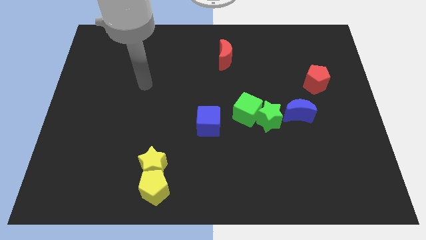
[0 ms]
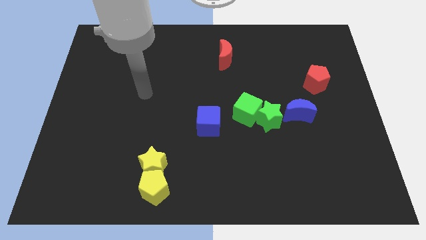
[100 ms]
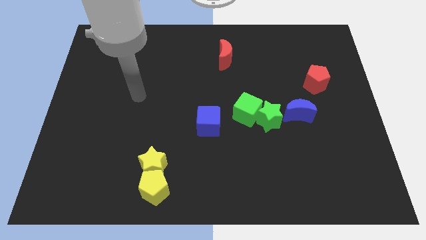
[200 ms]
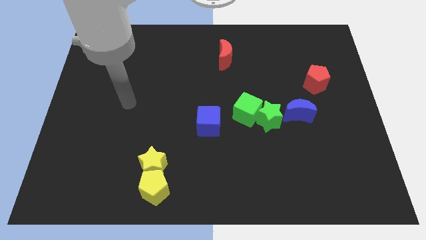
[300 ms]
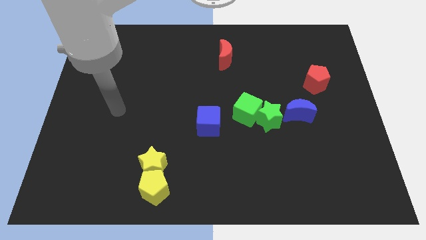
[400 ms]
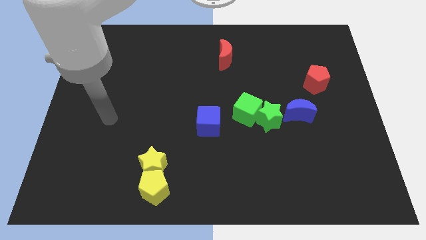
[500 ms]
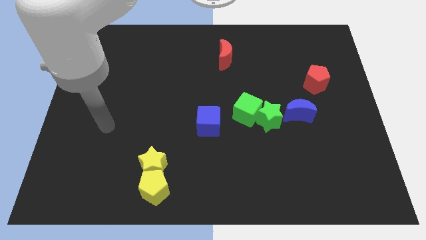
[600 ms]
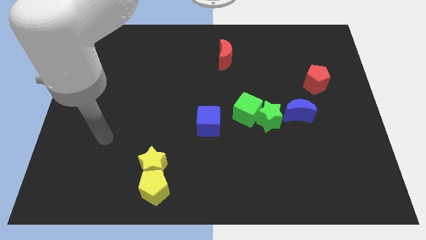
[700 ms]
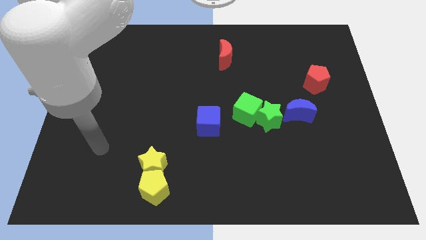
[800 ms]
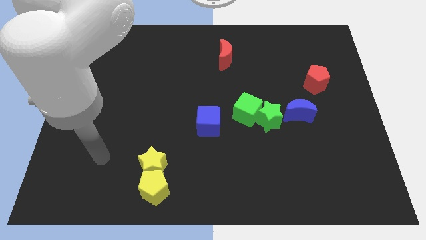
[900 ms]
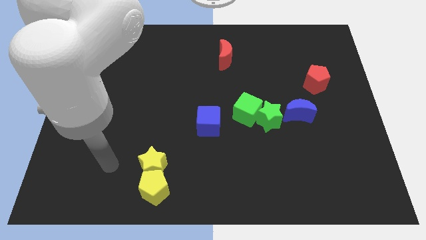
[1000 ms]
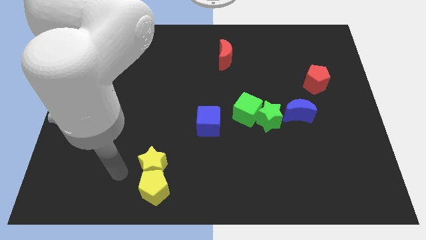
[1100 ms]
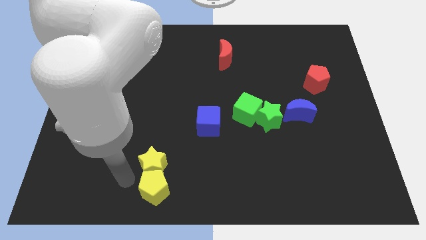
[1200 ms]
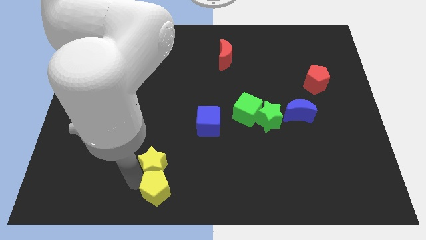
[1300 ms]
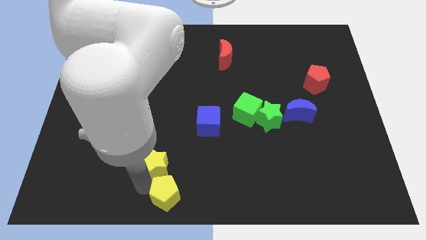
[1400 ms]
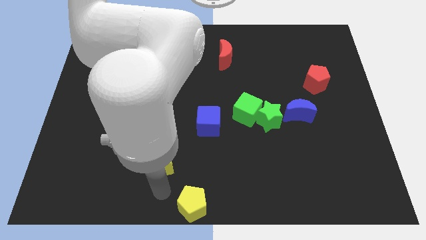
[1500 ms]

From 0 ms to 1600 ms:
separate the yellow star from the yellow pentagon

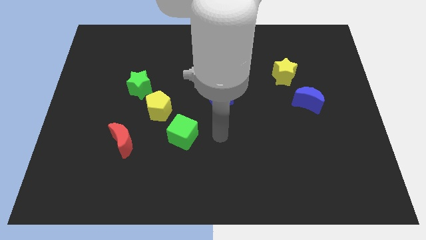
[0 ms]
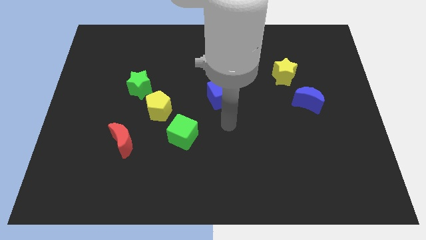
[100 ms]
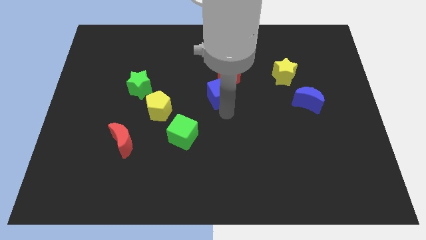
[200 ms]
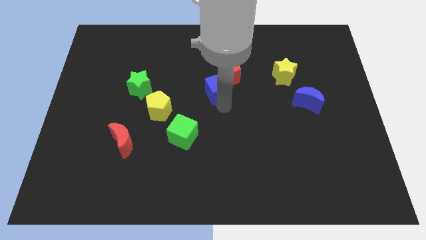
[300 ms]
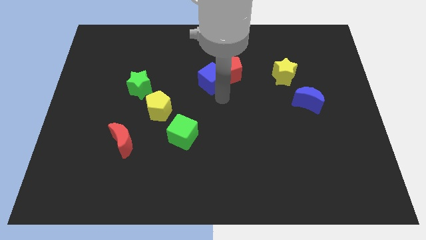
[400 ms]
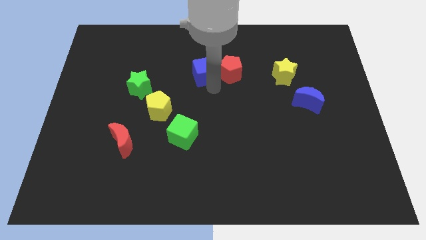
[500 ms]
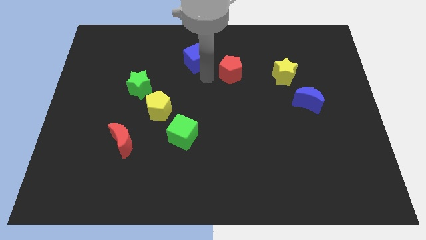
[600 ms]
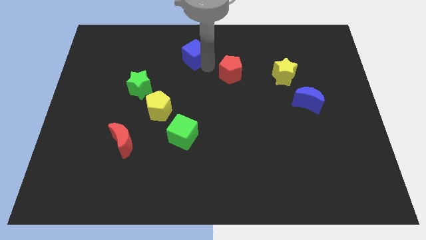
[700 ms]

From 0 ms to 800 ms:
move the red pentagon away from the blue cube

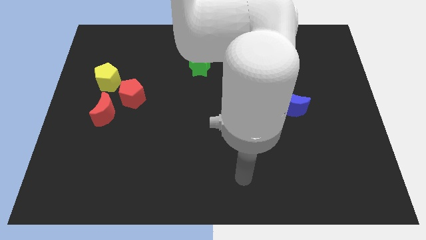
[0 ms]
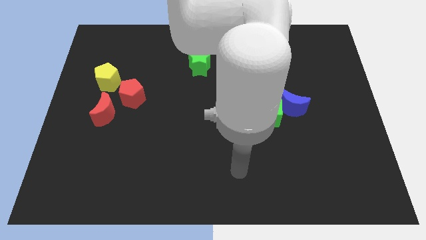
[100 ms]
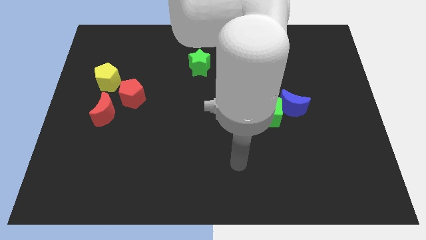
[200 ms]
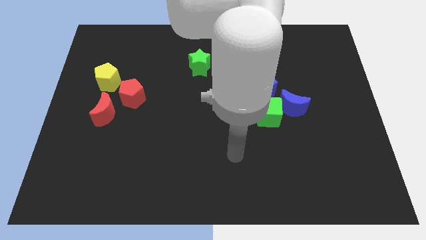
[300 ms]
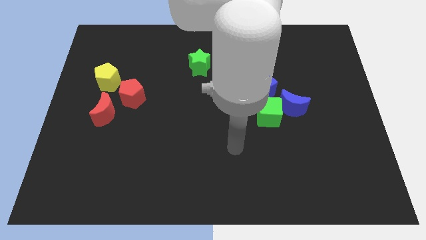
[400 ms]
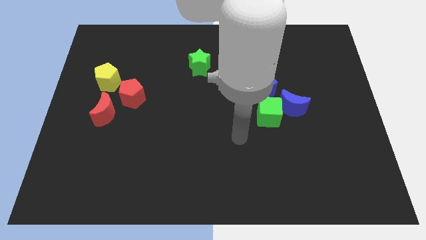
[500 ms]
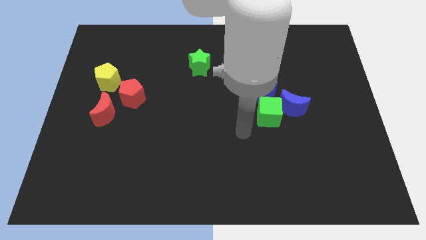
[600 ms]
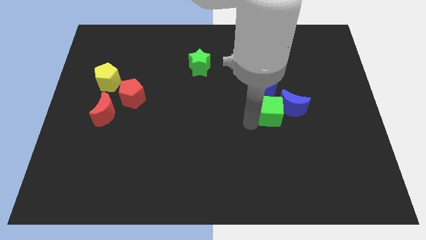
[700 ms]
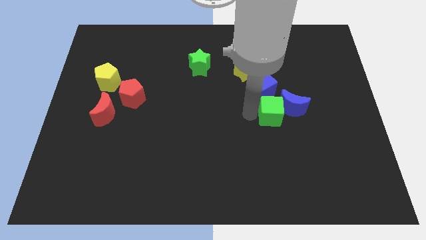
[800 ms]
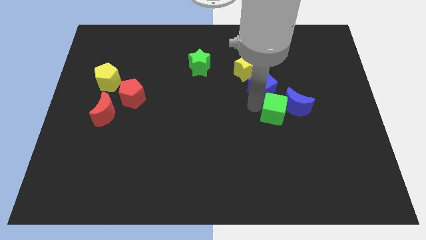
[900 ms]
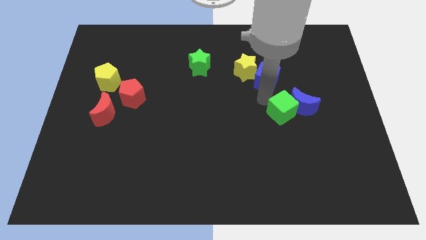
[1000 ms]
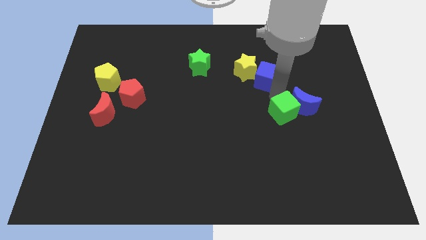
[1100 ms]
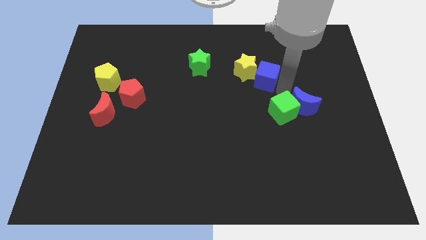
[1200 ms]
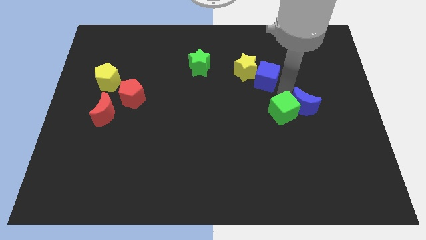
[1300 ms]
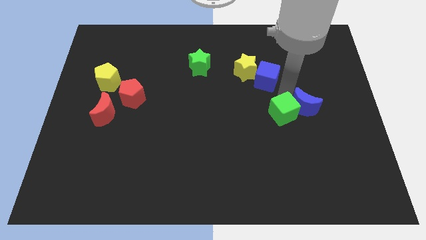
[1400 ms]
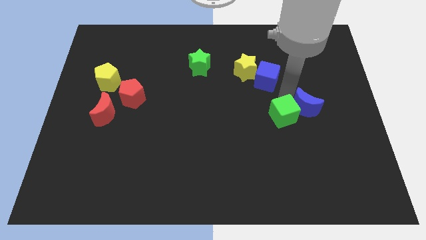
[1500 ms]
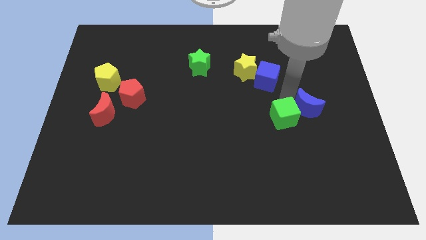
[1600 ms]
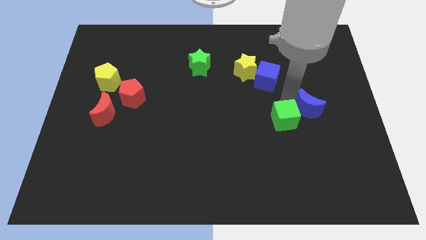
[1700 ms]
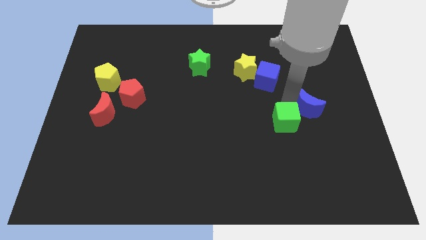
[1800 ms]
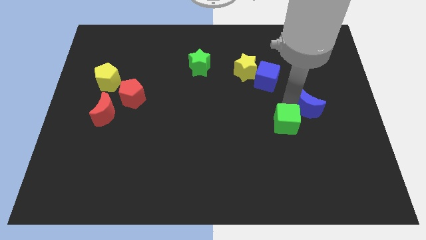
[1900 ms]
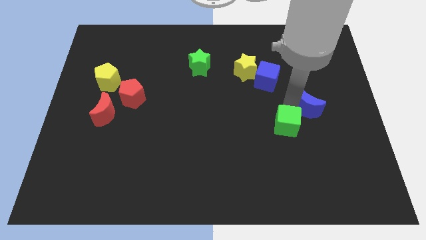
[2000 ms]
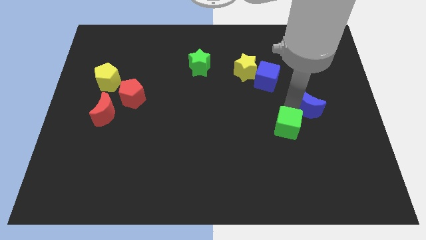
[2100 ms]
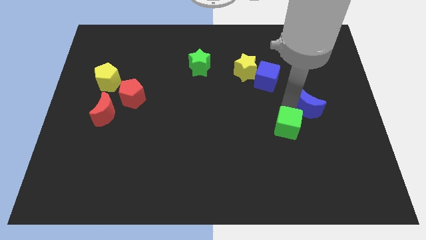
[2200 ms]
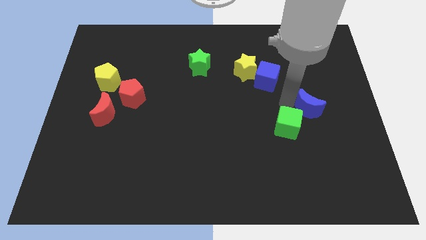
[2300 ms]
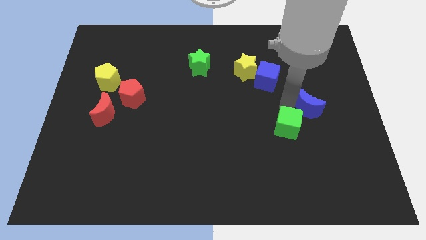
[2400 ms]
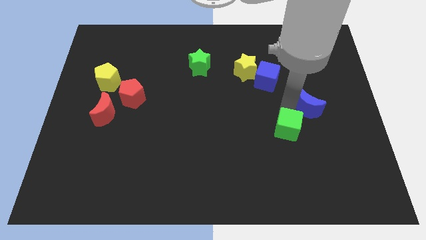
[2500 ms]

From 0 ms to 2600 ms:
move the green cube away from the blue moon and blue cube

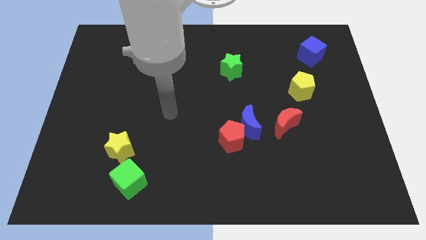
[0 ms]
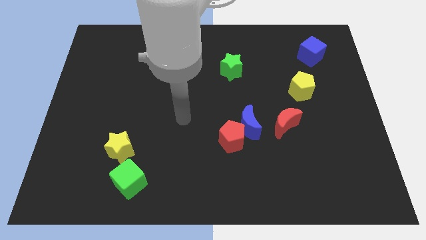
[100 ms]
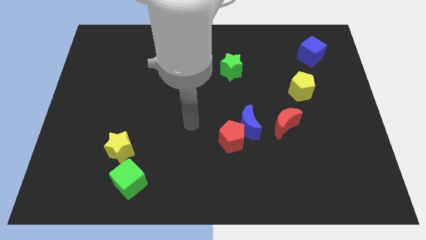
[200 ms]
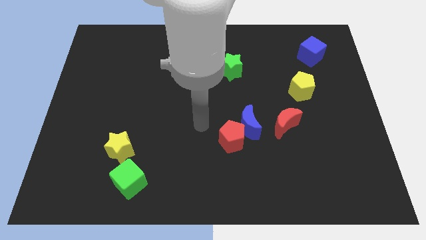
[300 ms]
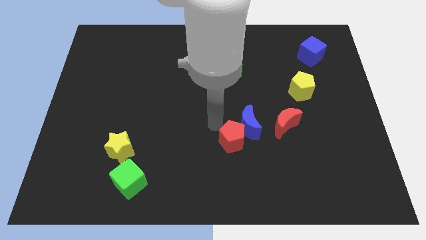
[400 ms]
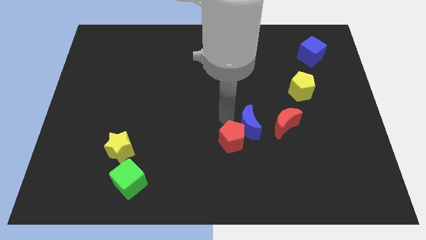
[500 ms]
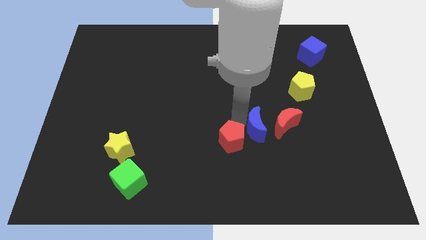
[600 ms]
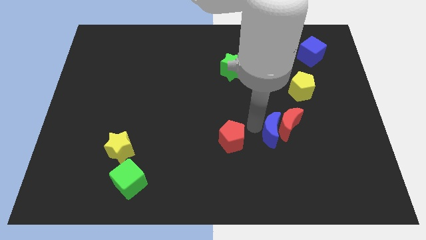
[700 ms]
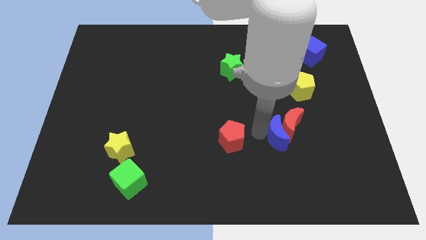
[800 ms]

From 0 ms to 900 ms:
pull the red pentagon apart from the blue moon

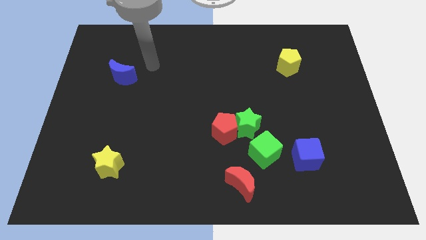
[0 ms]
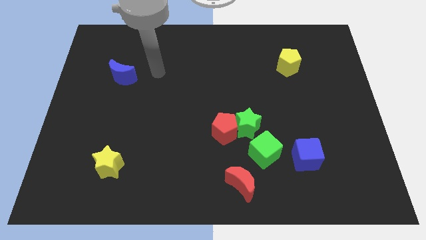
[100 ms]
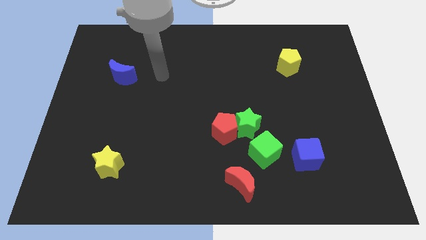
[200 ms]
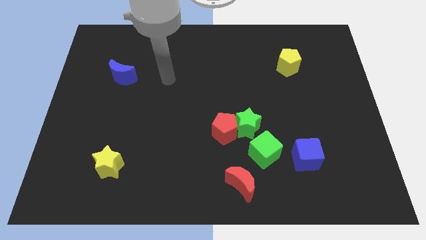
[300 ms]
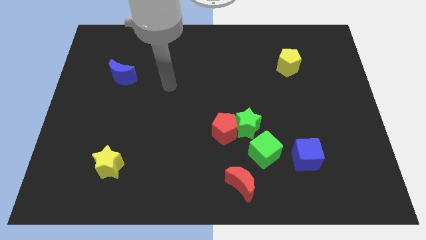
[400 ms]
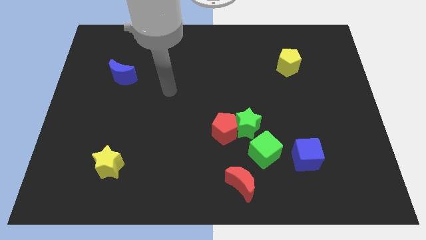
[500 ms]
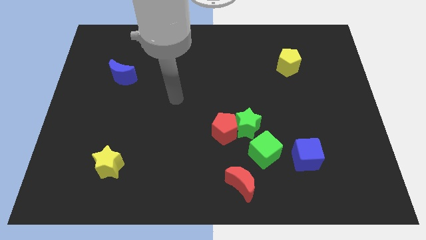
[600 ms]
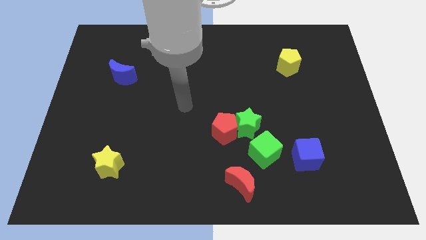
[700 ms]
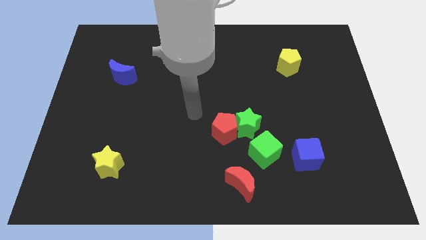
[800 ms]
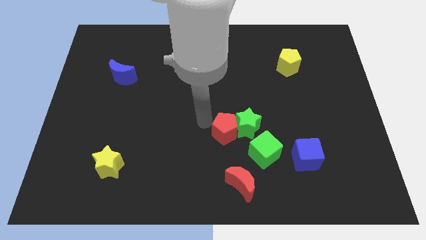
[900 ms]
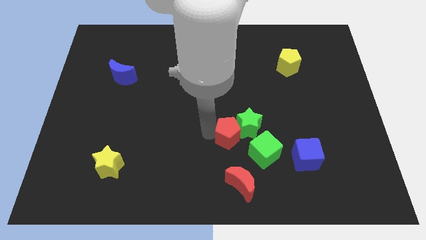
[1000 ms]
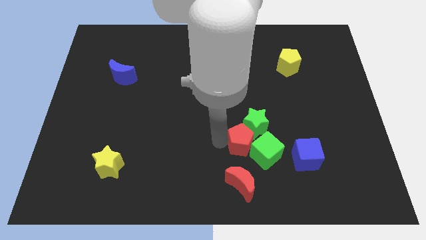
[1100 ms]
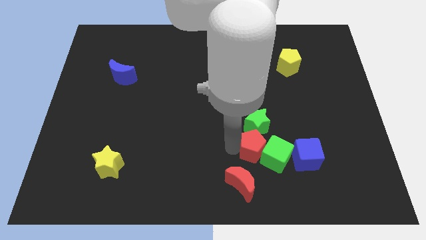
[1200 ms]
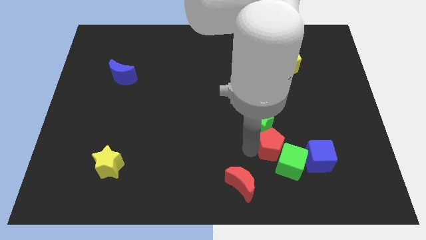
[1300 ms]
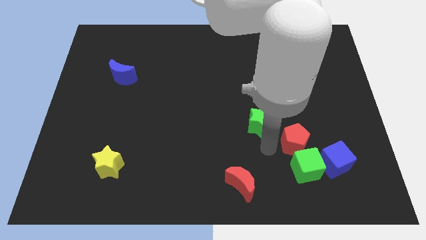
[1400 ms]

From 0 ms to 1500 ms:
pull the green star apart from the red pentagon and green cube

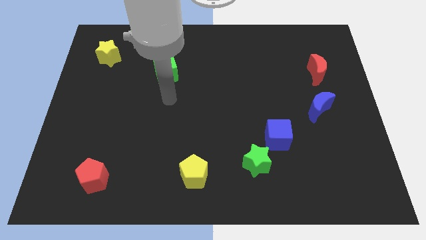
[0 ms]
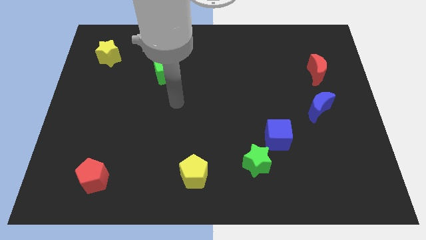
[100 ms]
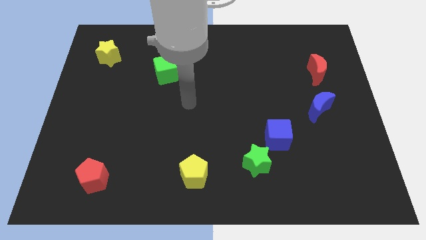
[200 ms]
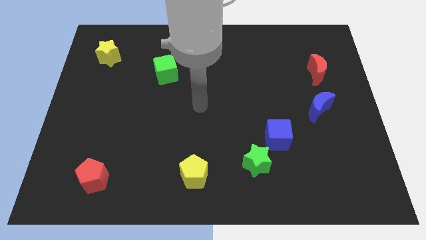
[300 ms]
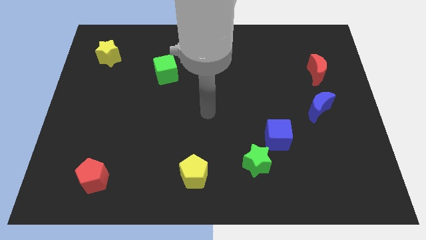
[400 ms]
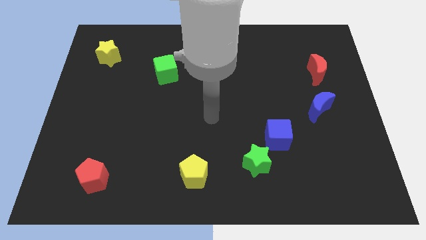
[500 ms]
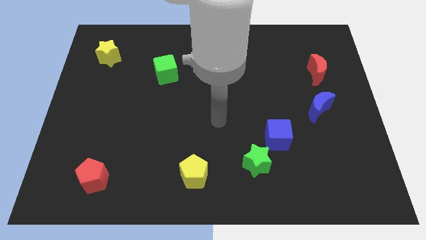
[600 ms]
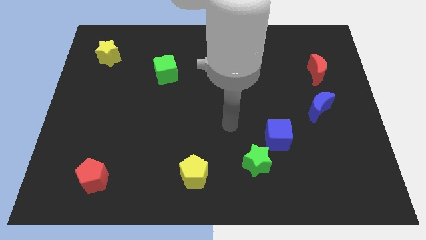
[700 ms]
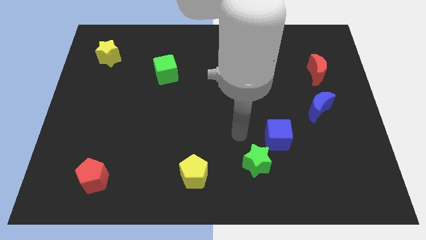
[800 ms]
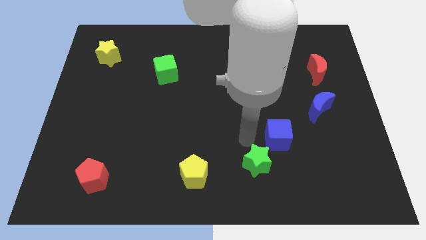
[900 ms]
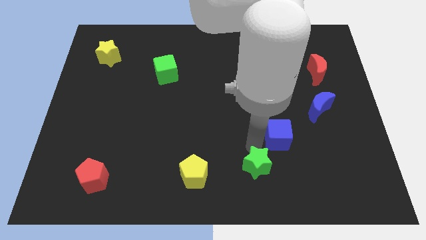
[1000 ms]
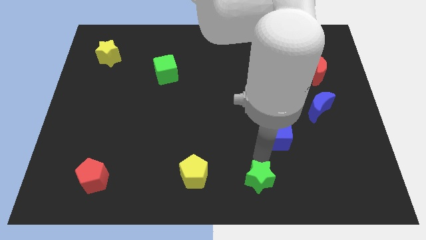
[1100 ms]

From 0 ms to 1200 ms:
pull the blue cube apart from the green star

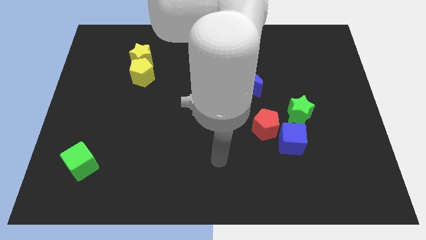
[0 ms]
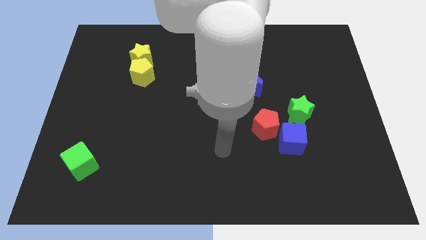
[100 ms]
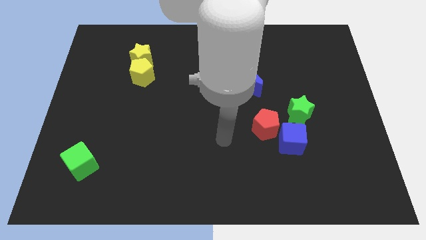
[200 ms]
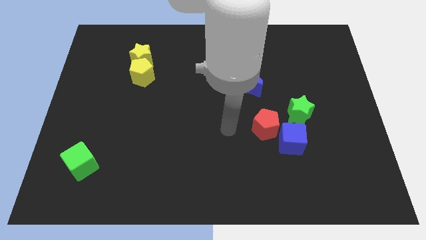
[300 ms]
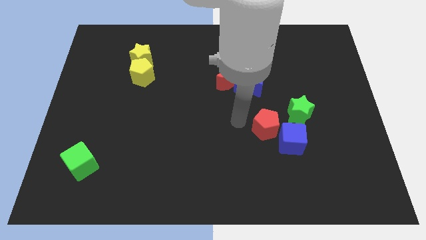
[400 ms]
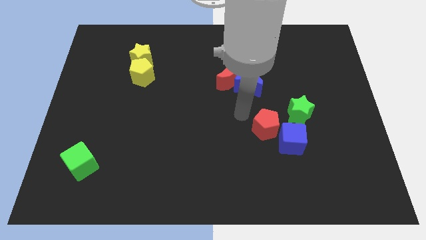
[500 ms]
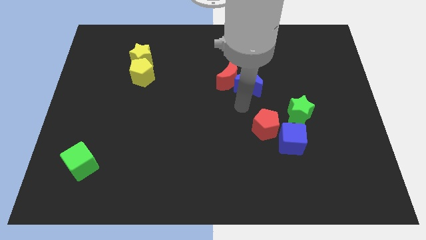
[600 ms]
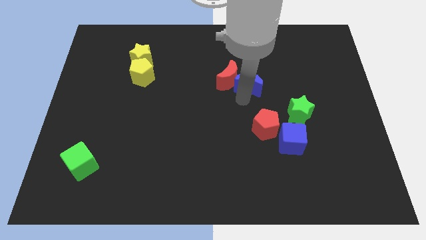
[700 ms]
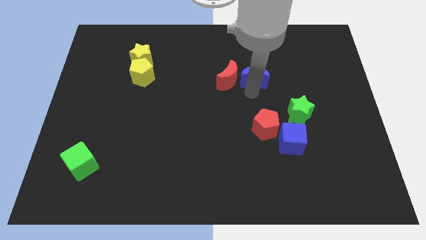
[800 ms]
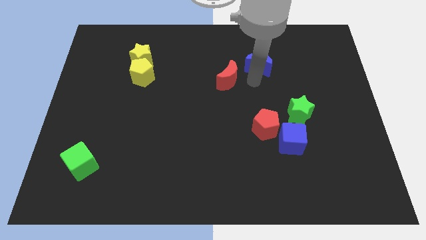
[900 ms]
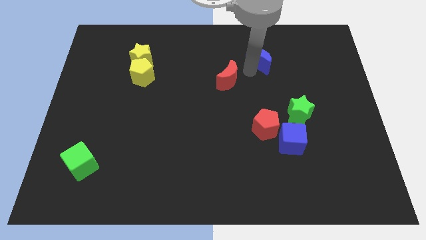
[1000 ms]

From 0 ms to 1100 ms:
move the red moon away from the blue moon
